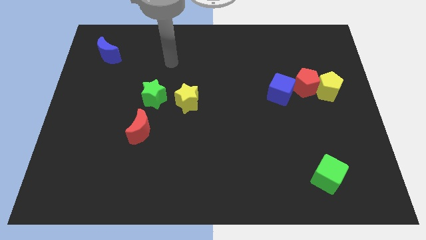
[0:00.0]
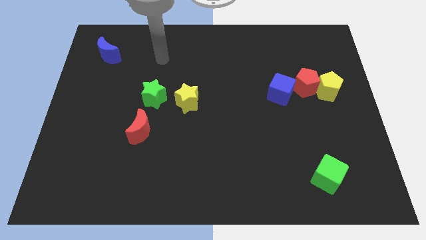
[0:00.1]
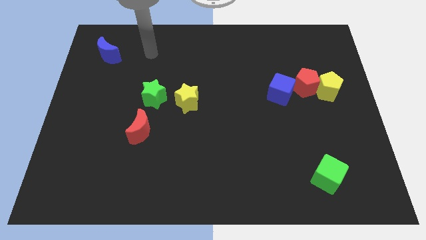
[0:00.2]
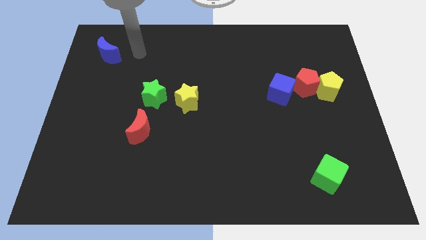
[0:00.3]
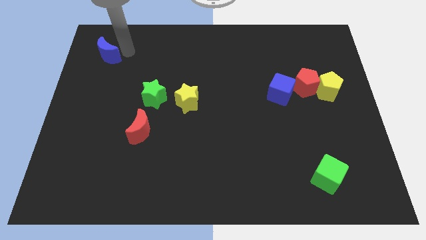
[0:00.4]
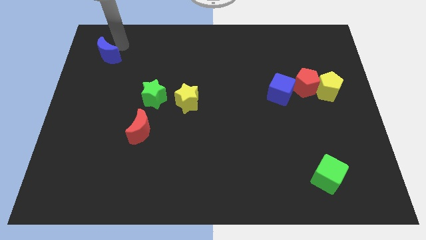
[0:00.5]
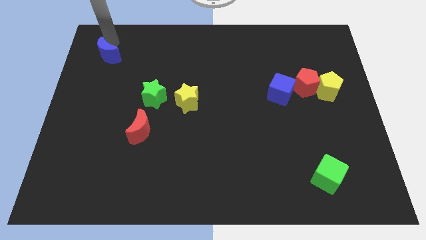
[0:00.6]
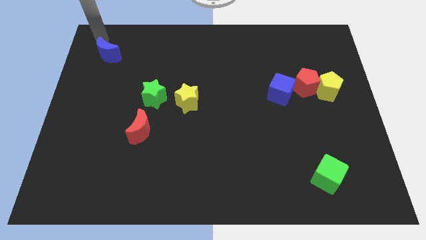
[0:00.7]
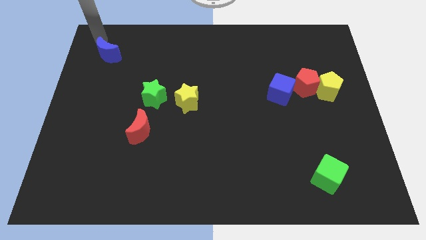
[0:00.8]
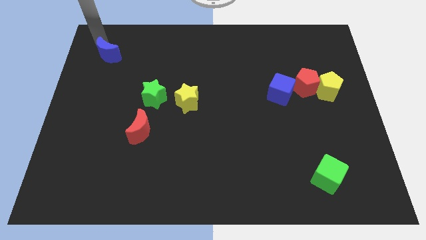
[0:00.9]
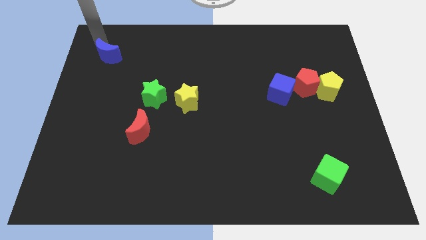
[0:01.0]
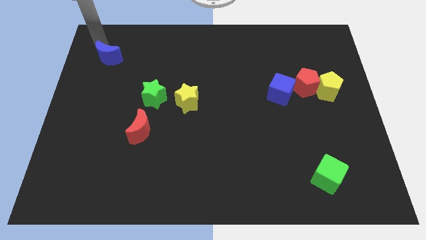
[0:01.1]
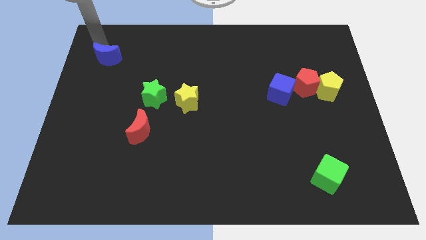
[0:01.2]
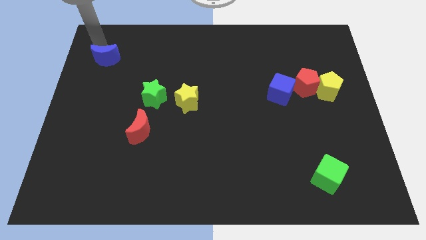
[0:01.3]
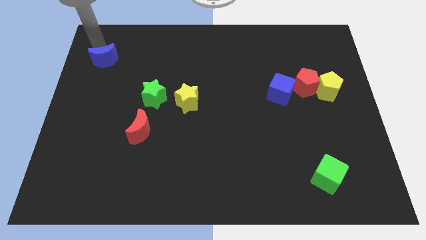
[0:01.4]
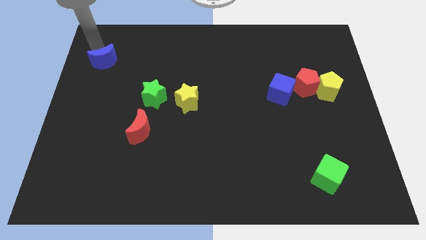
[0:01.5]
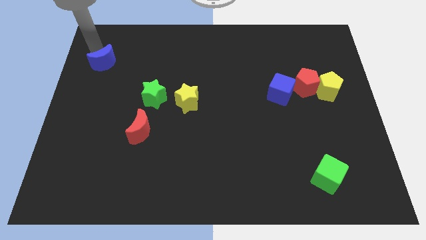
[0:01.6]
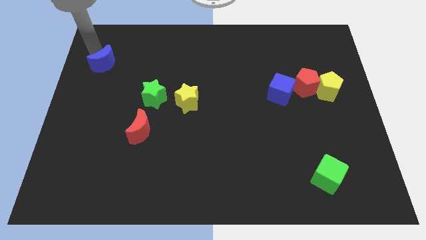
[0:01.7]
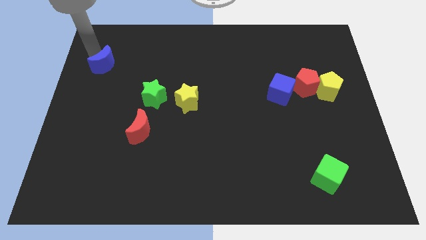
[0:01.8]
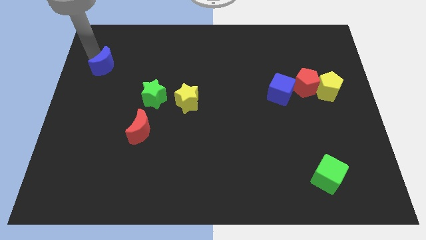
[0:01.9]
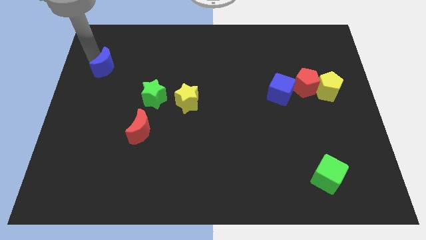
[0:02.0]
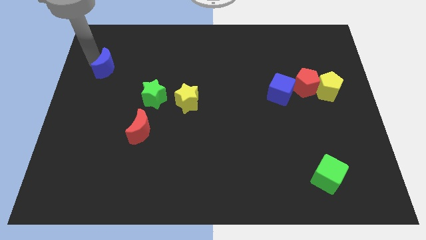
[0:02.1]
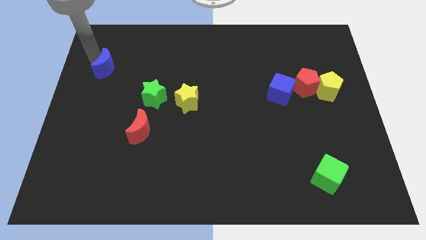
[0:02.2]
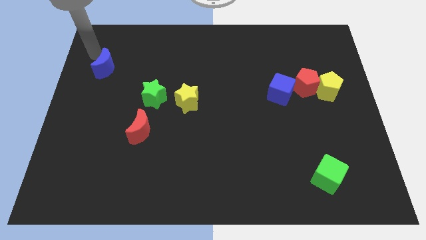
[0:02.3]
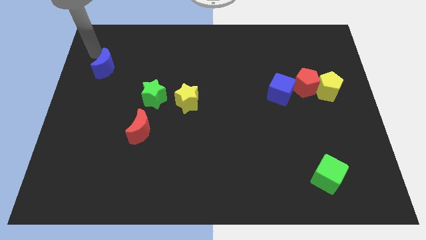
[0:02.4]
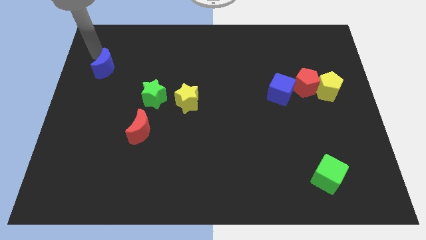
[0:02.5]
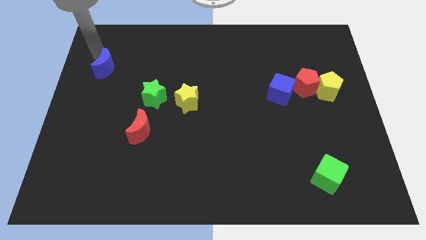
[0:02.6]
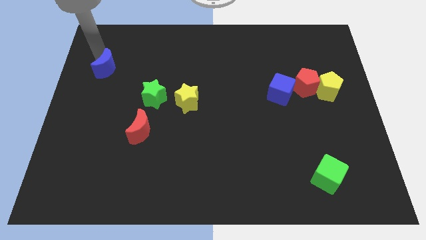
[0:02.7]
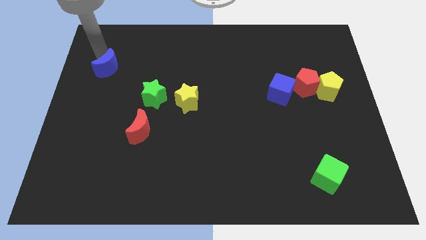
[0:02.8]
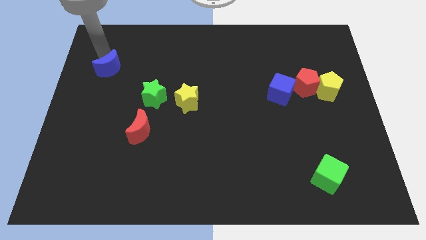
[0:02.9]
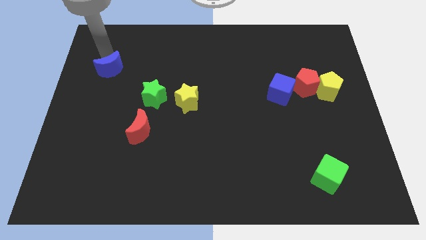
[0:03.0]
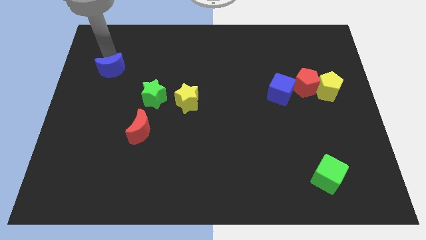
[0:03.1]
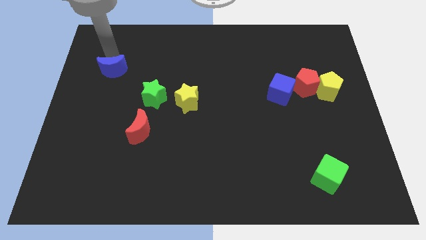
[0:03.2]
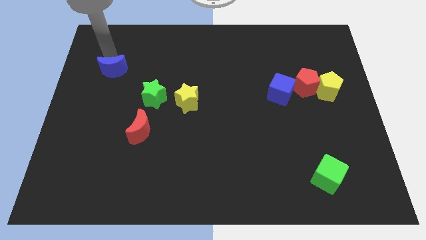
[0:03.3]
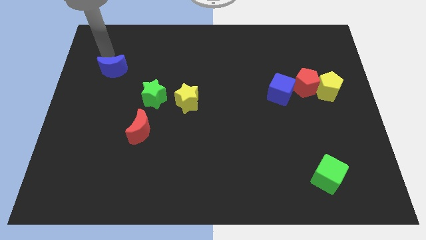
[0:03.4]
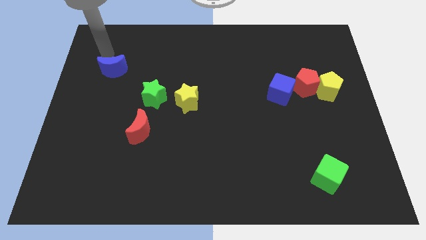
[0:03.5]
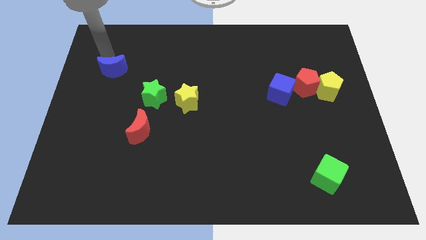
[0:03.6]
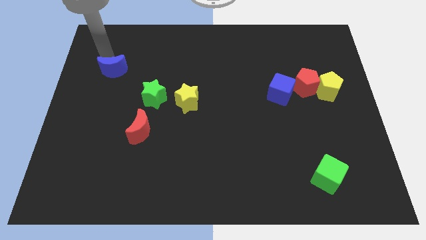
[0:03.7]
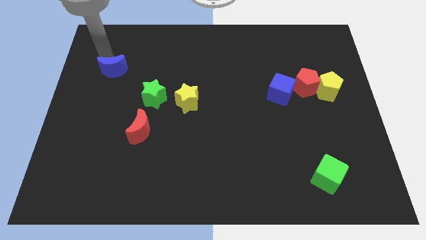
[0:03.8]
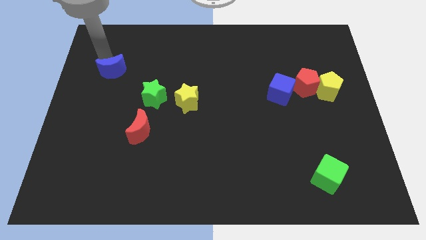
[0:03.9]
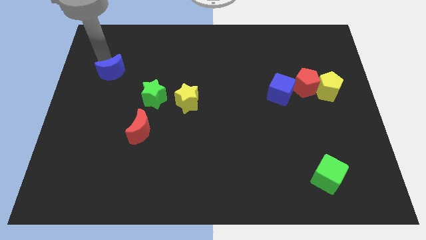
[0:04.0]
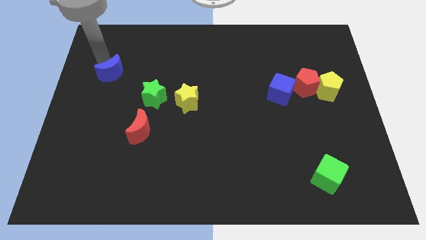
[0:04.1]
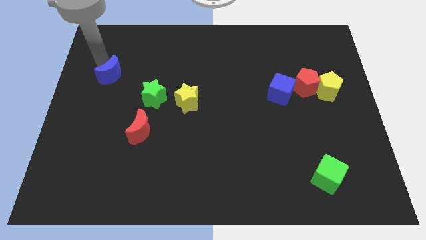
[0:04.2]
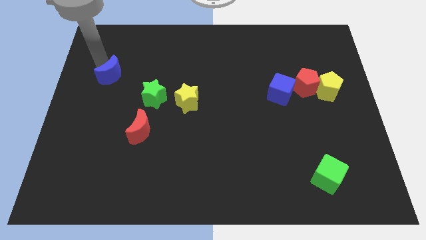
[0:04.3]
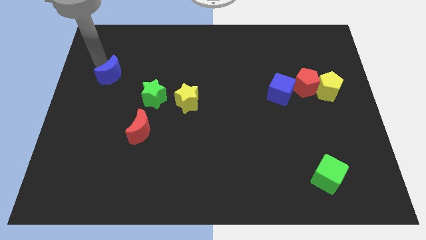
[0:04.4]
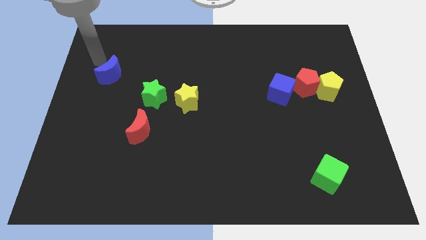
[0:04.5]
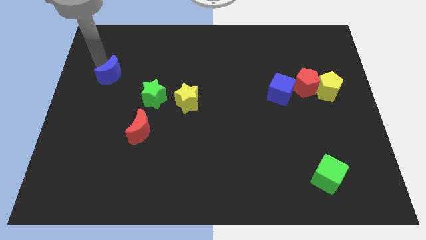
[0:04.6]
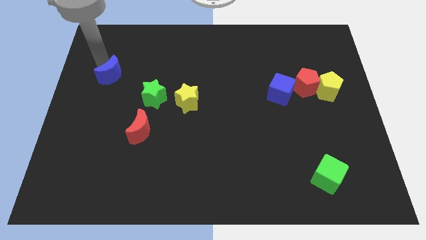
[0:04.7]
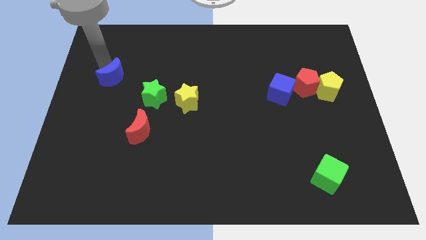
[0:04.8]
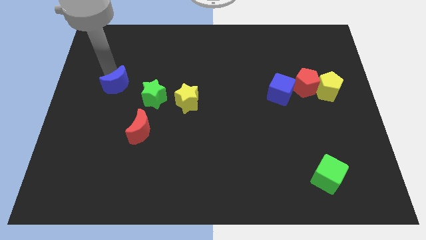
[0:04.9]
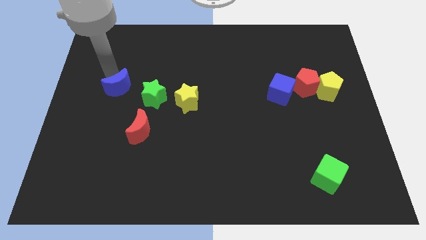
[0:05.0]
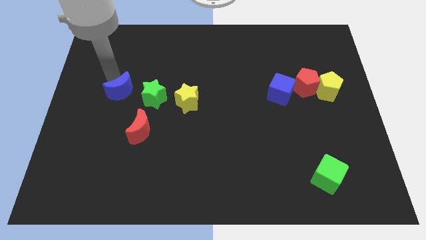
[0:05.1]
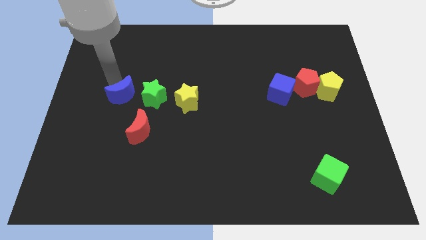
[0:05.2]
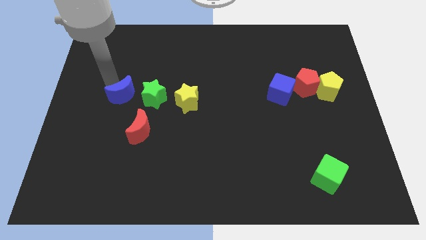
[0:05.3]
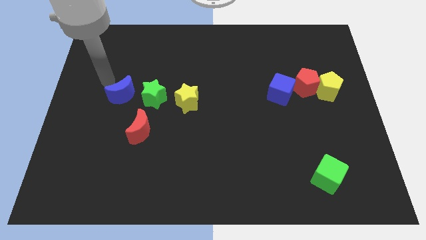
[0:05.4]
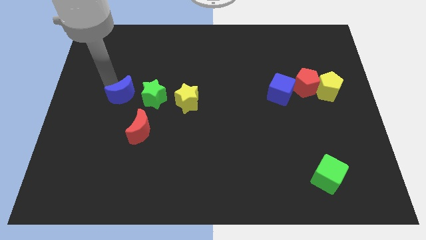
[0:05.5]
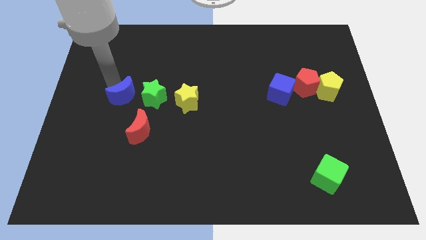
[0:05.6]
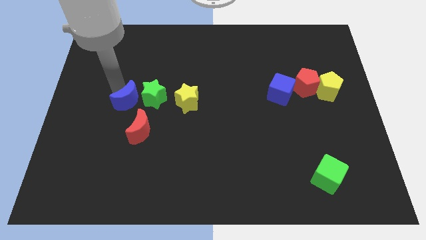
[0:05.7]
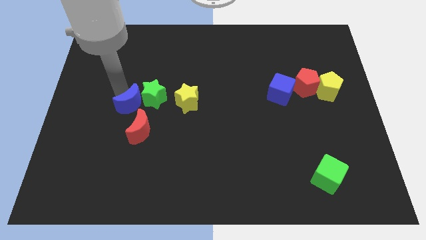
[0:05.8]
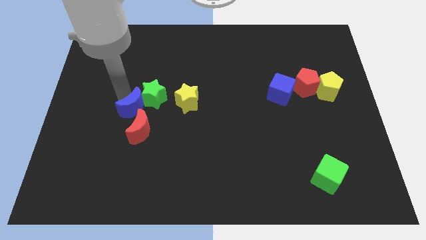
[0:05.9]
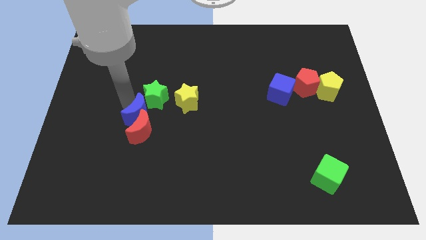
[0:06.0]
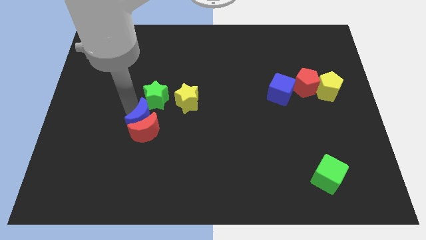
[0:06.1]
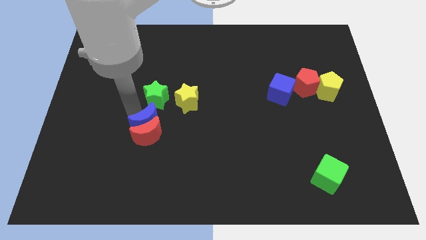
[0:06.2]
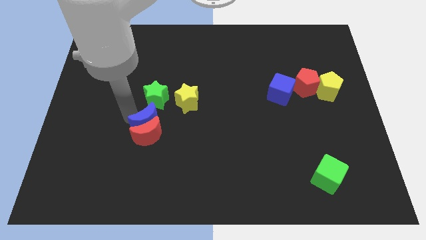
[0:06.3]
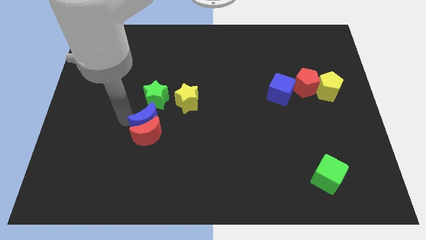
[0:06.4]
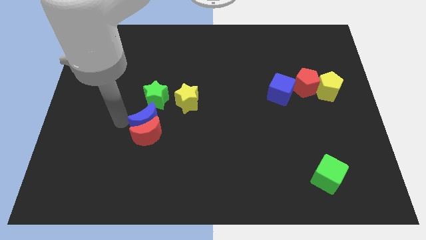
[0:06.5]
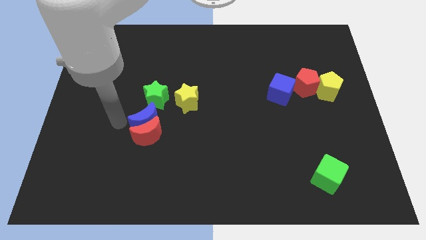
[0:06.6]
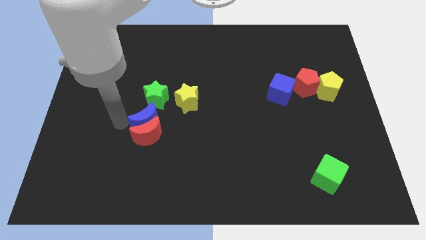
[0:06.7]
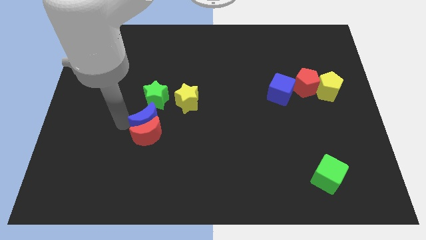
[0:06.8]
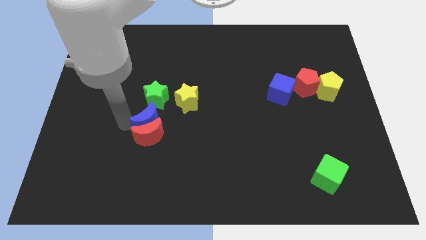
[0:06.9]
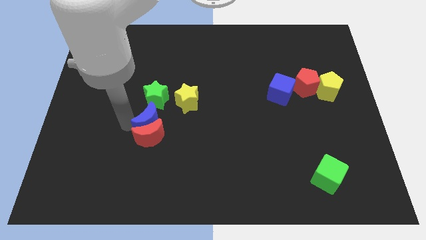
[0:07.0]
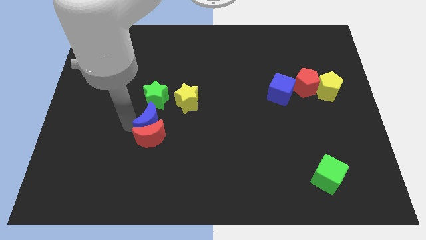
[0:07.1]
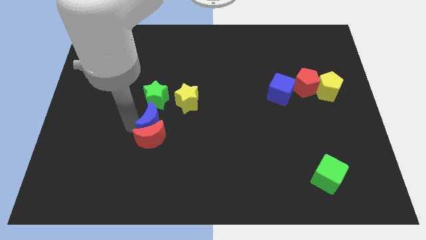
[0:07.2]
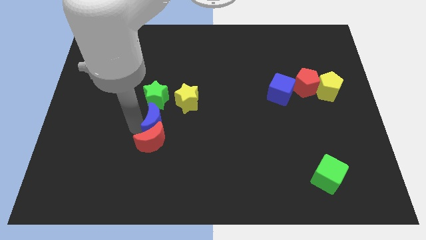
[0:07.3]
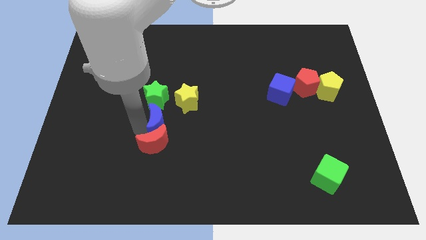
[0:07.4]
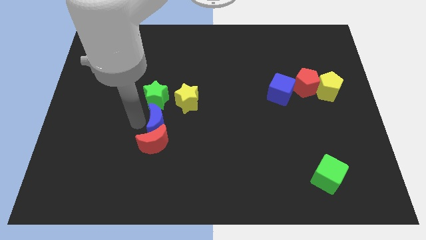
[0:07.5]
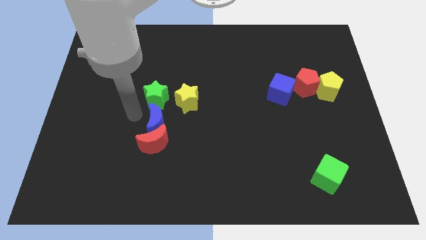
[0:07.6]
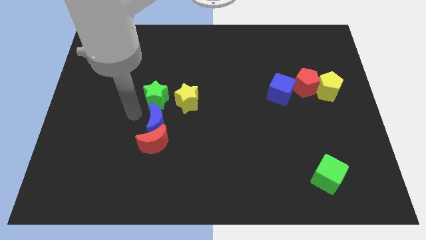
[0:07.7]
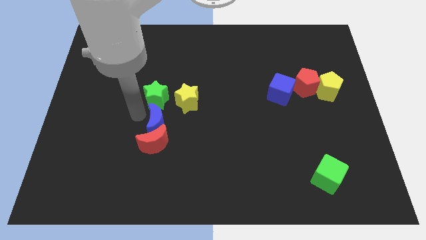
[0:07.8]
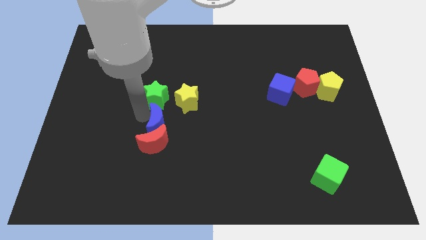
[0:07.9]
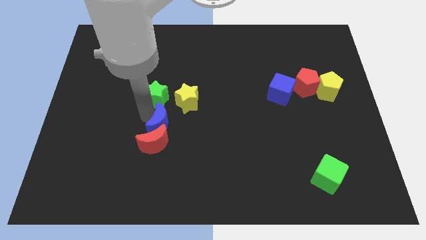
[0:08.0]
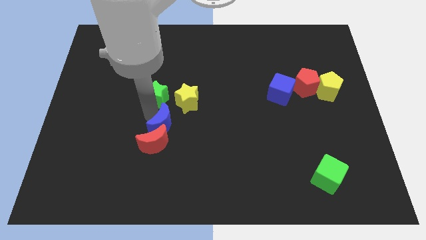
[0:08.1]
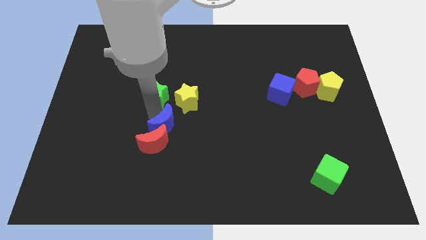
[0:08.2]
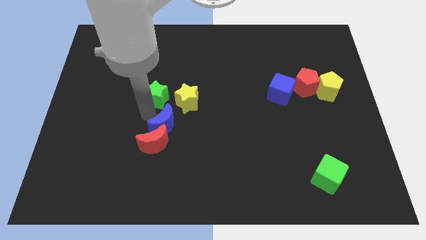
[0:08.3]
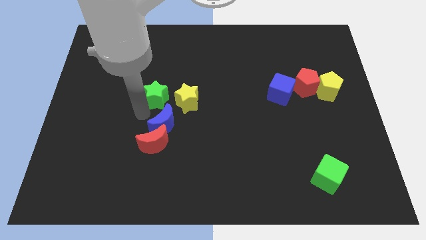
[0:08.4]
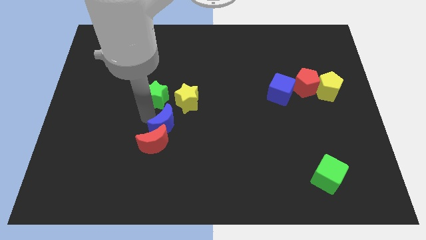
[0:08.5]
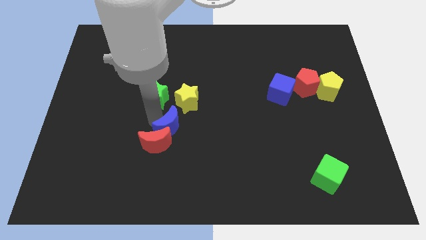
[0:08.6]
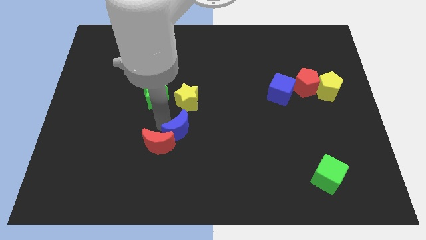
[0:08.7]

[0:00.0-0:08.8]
slide the blue moon right of the red moon

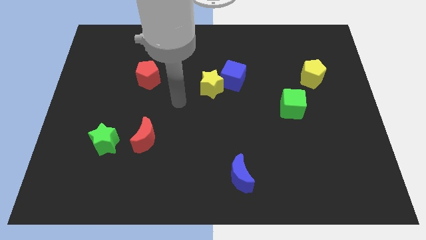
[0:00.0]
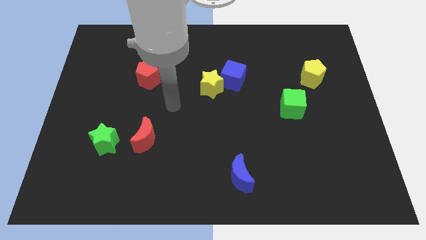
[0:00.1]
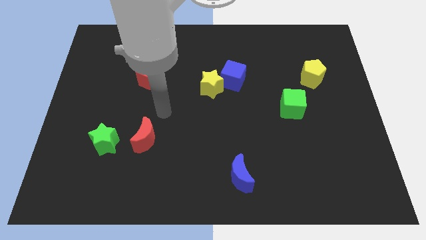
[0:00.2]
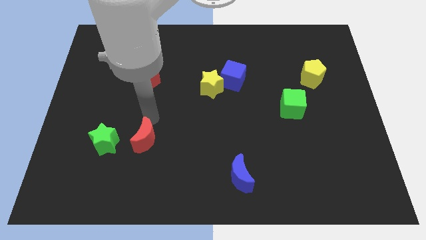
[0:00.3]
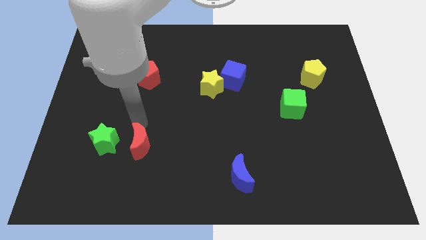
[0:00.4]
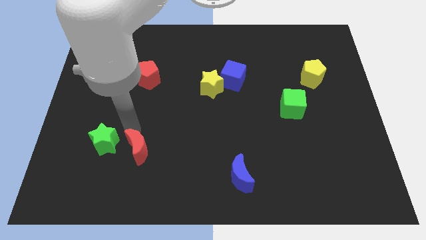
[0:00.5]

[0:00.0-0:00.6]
move the green star diagonally up and to the left of the red moon
